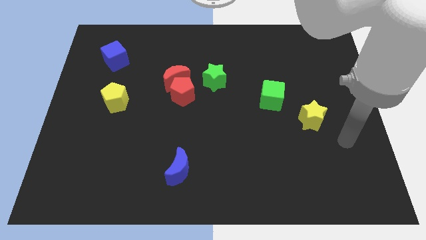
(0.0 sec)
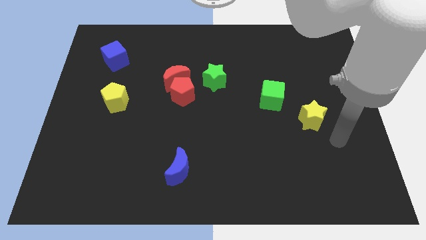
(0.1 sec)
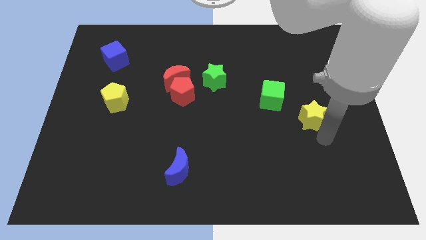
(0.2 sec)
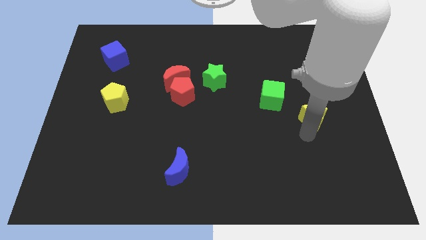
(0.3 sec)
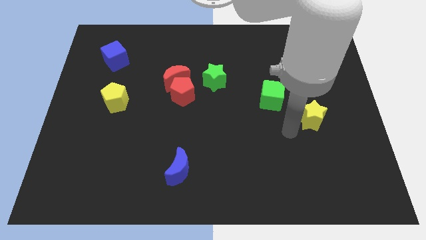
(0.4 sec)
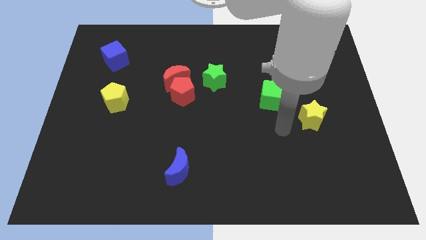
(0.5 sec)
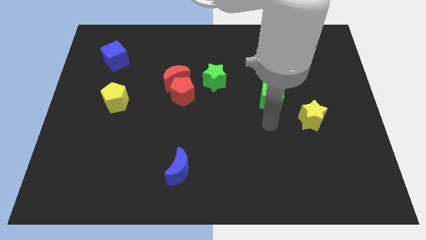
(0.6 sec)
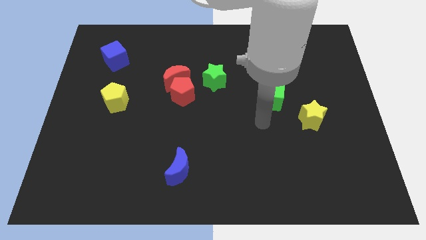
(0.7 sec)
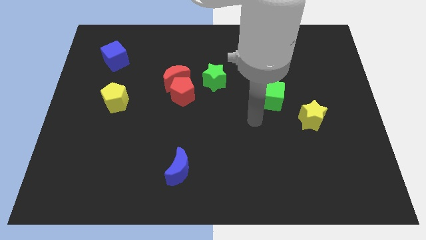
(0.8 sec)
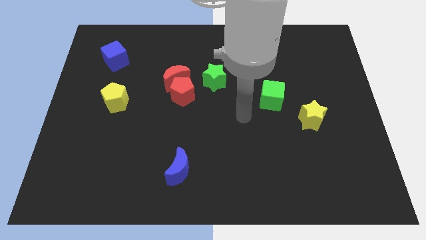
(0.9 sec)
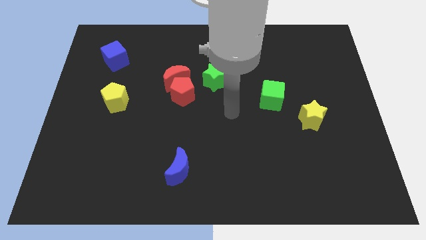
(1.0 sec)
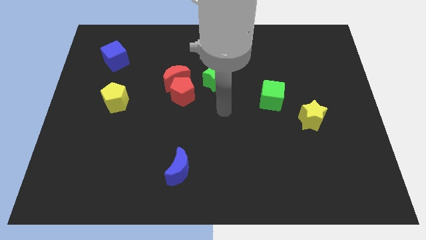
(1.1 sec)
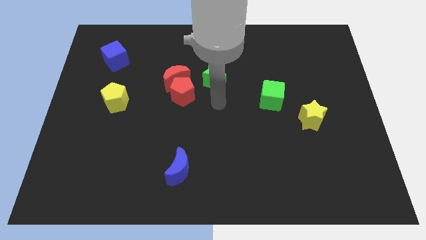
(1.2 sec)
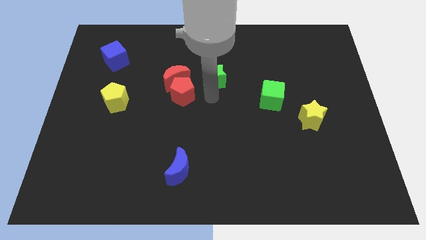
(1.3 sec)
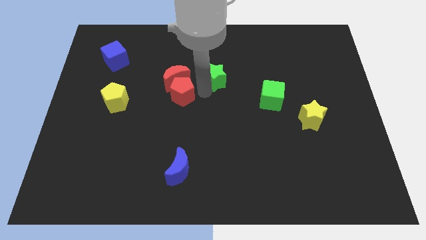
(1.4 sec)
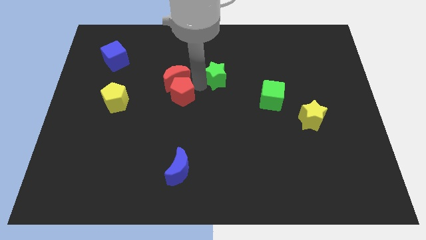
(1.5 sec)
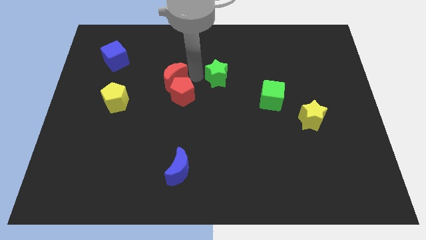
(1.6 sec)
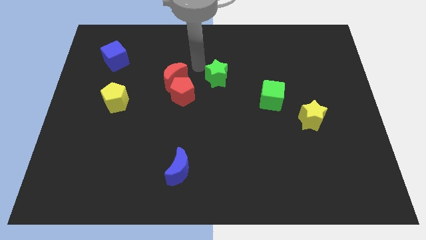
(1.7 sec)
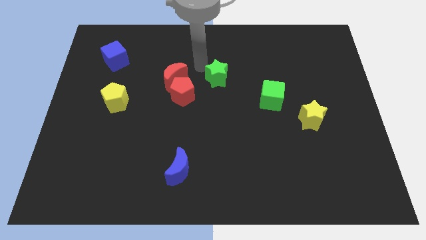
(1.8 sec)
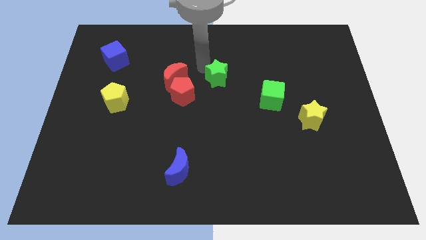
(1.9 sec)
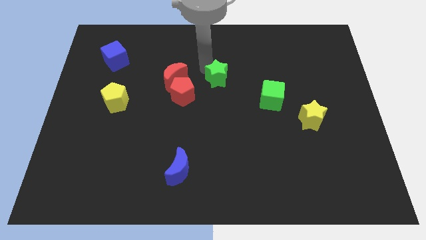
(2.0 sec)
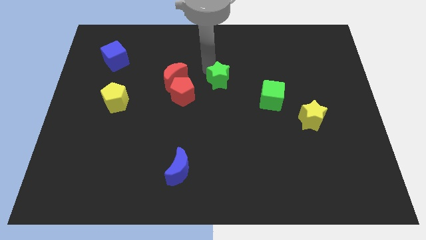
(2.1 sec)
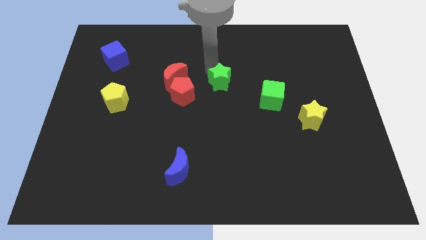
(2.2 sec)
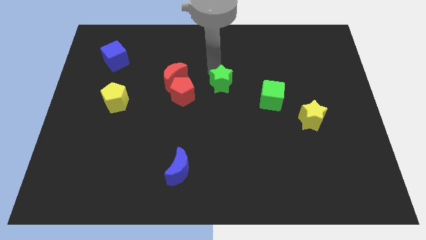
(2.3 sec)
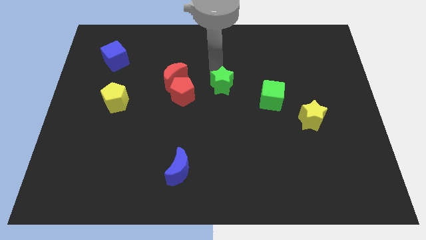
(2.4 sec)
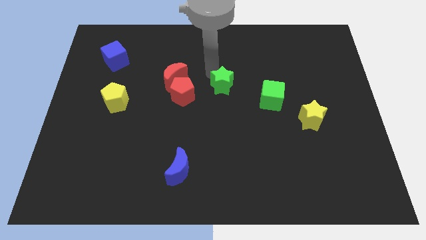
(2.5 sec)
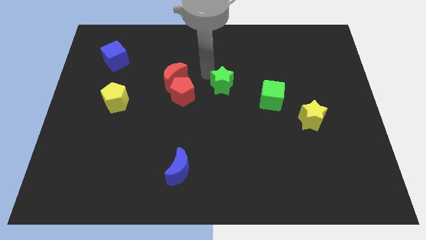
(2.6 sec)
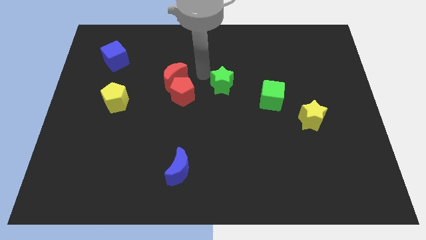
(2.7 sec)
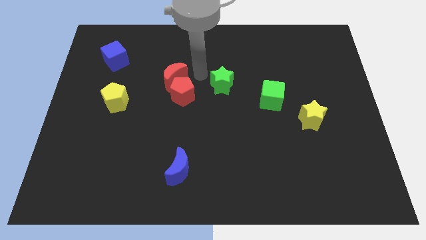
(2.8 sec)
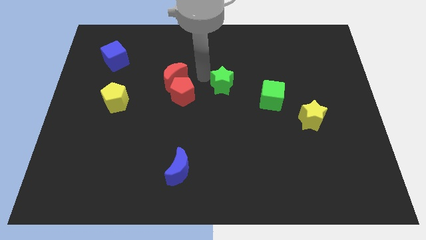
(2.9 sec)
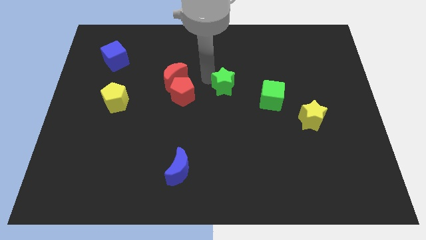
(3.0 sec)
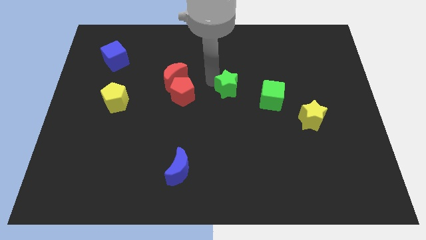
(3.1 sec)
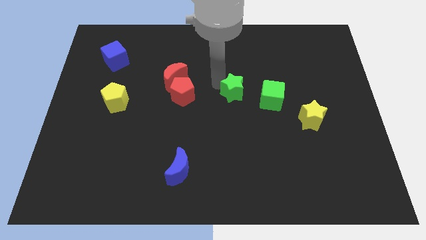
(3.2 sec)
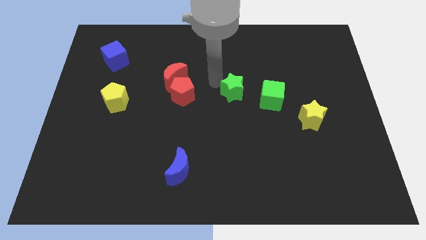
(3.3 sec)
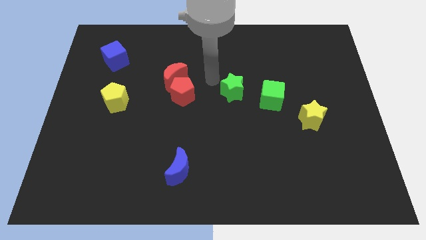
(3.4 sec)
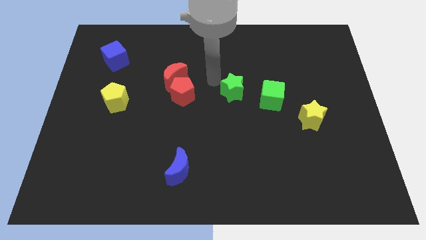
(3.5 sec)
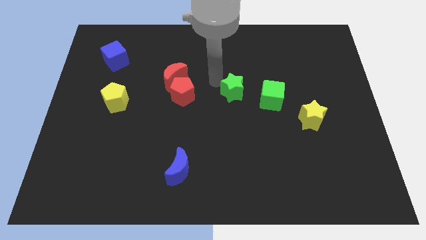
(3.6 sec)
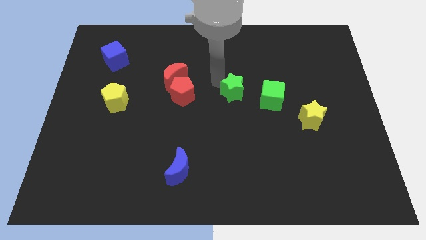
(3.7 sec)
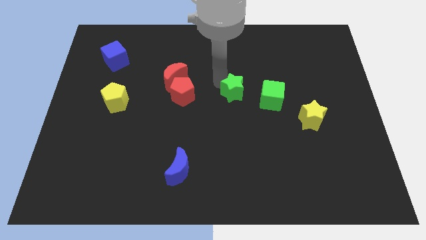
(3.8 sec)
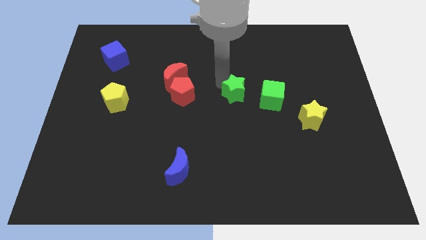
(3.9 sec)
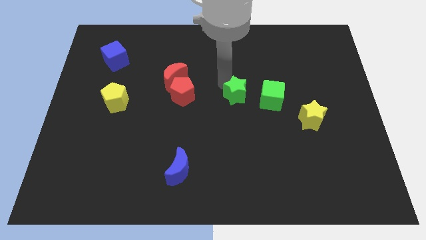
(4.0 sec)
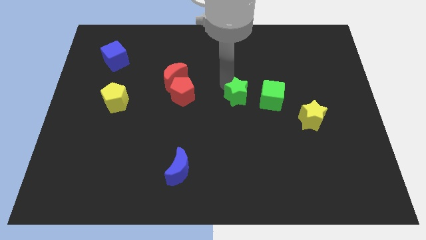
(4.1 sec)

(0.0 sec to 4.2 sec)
push the green star downwards and then right a bit

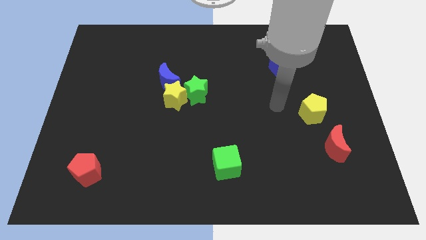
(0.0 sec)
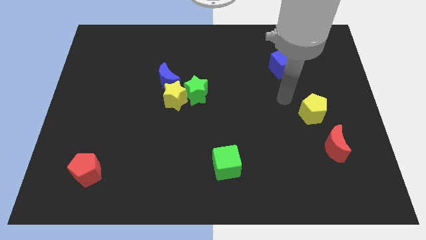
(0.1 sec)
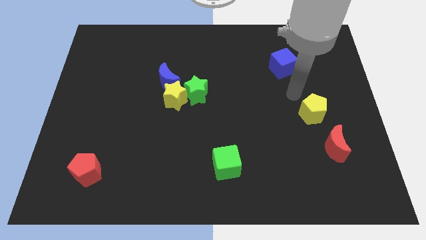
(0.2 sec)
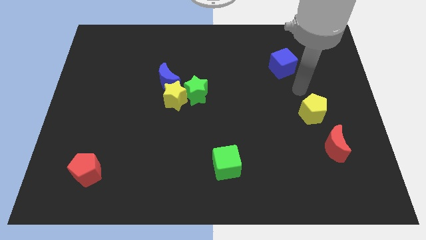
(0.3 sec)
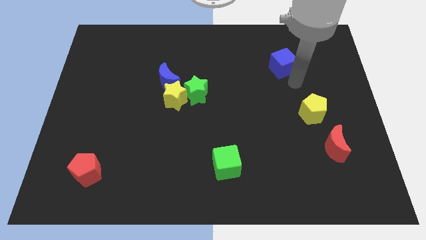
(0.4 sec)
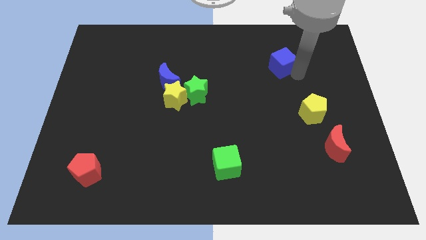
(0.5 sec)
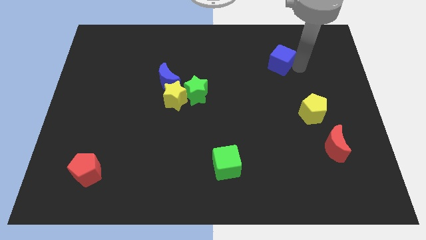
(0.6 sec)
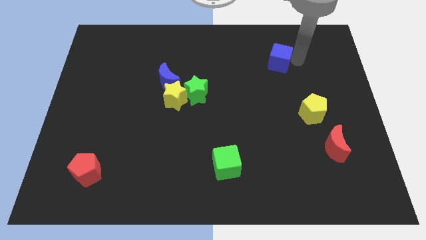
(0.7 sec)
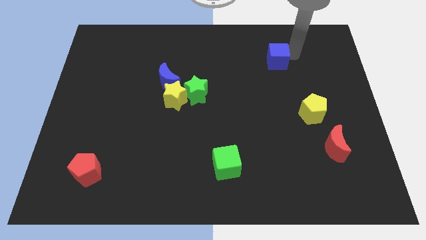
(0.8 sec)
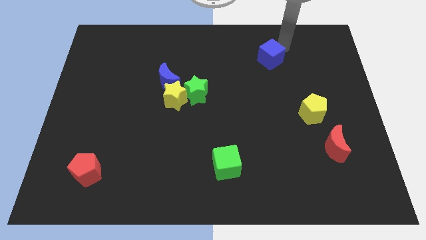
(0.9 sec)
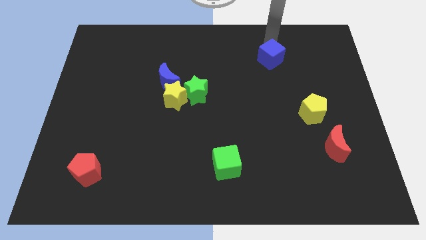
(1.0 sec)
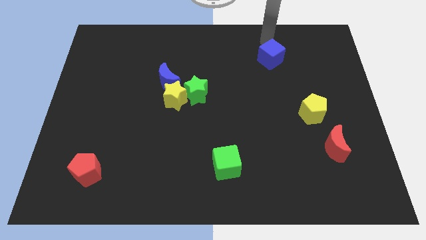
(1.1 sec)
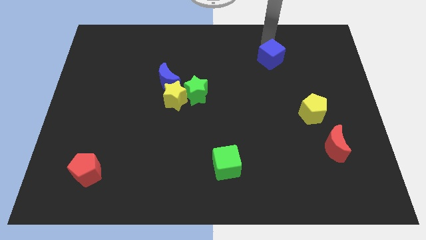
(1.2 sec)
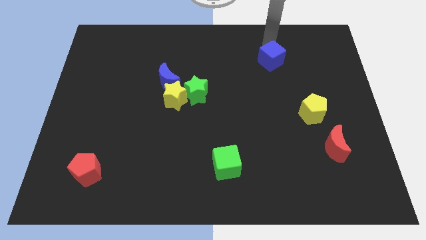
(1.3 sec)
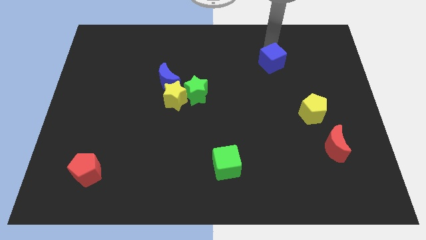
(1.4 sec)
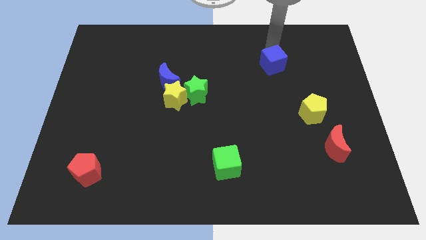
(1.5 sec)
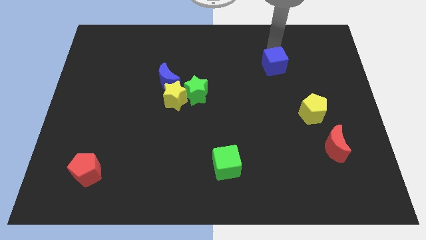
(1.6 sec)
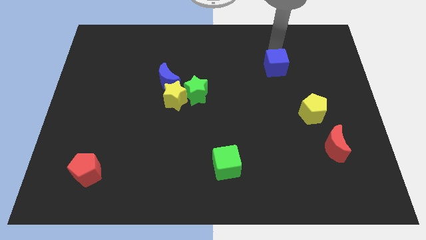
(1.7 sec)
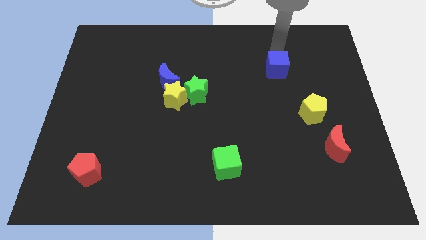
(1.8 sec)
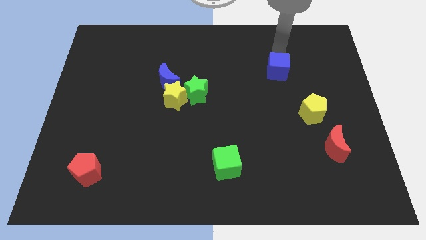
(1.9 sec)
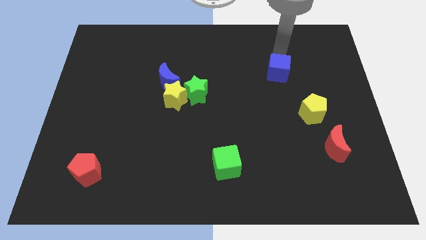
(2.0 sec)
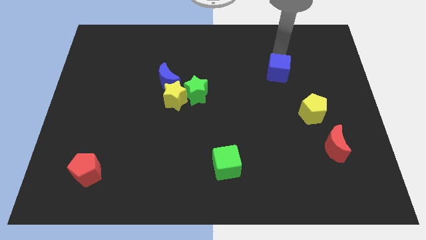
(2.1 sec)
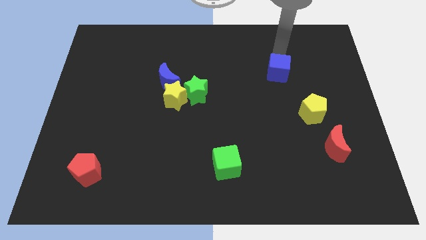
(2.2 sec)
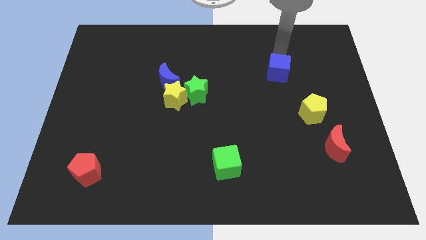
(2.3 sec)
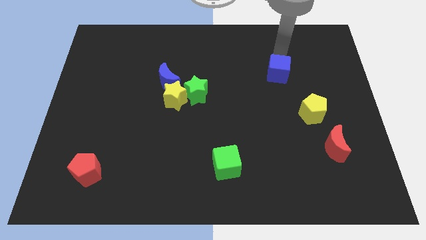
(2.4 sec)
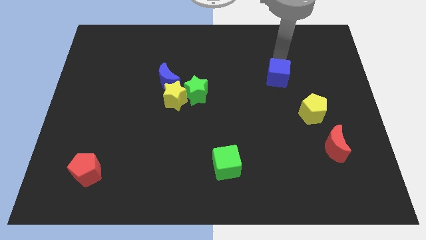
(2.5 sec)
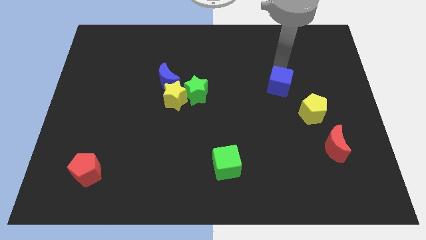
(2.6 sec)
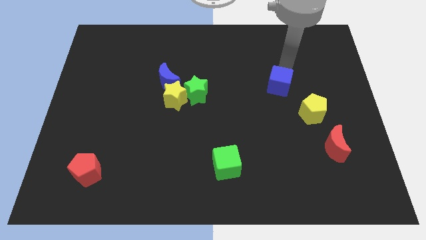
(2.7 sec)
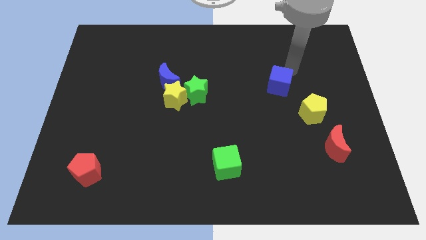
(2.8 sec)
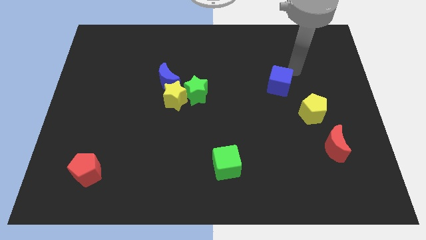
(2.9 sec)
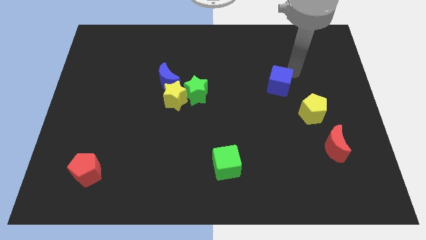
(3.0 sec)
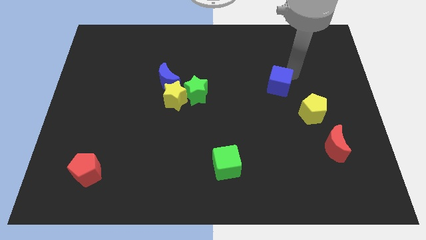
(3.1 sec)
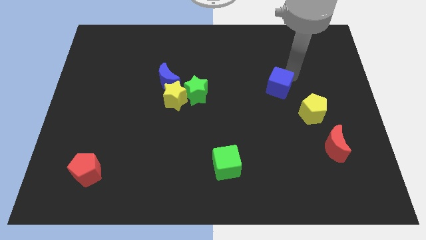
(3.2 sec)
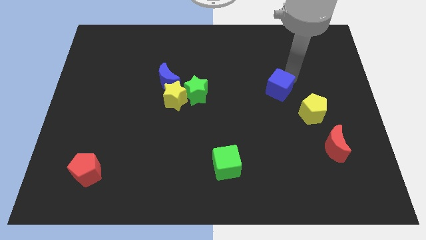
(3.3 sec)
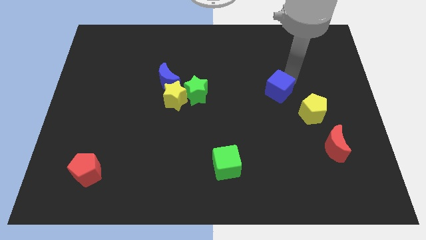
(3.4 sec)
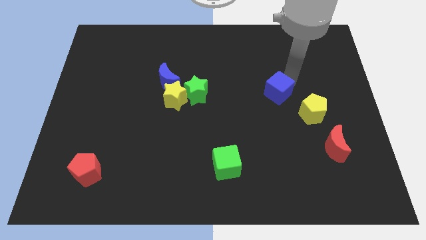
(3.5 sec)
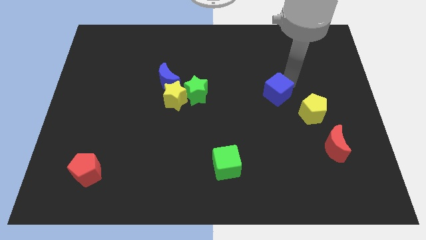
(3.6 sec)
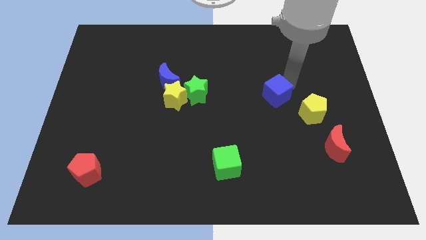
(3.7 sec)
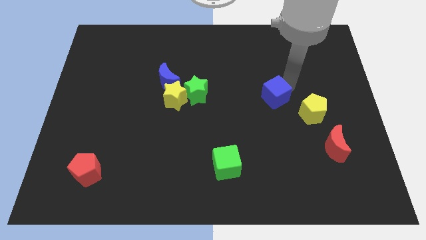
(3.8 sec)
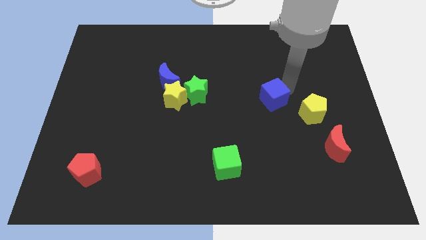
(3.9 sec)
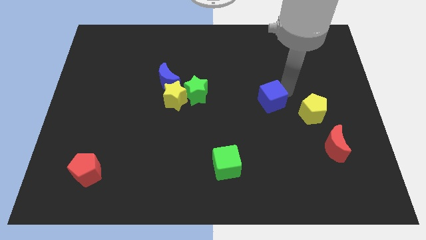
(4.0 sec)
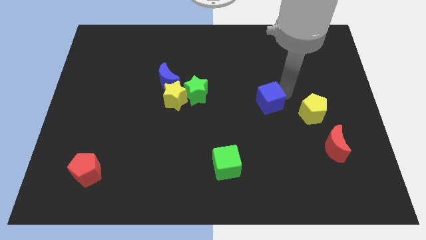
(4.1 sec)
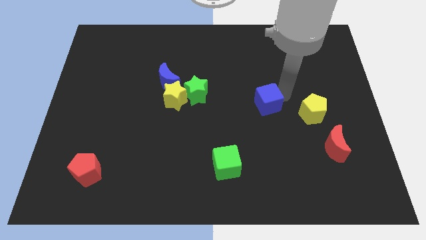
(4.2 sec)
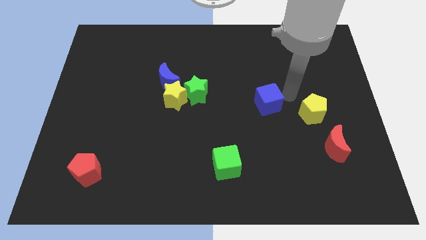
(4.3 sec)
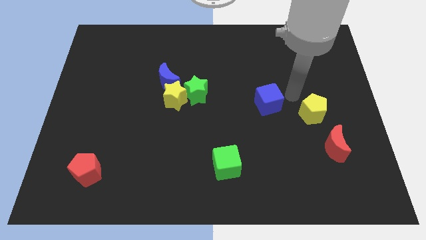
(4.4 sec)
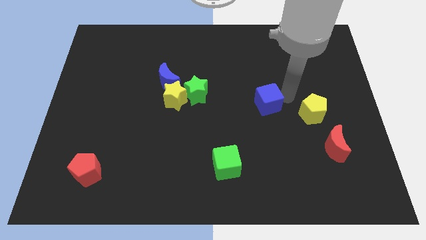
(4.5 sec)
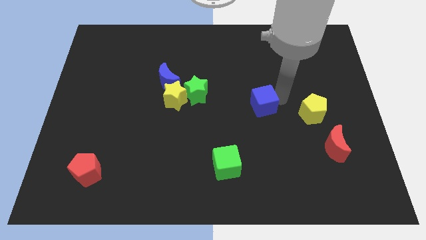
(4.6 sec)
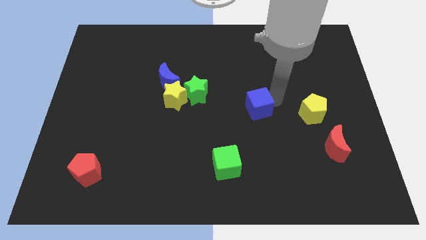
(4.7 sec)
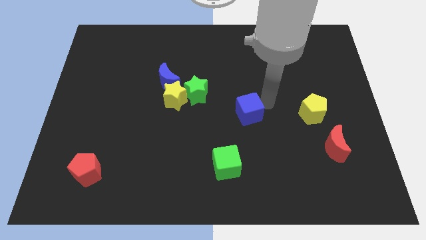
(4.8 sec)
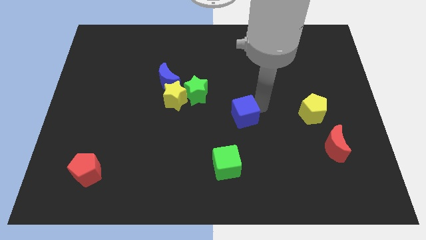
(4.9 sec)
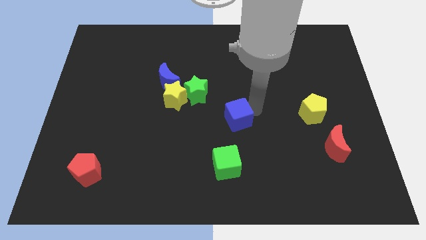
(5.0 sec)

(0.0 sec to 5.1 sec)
move the blue cube diagonally downwards and to the left
